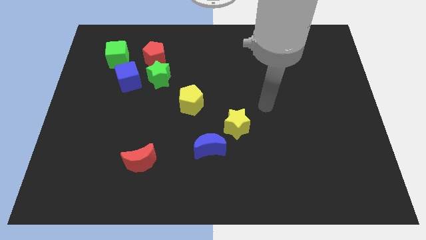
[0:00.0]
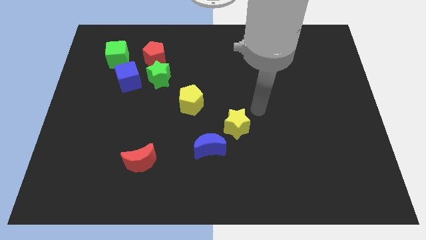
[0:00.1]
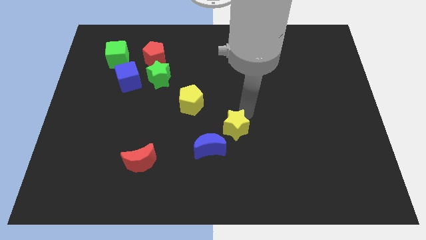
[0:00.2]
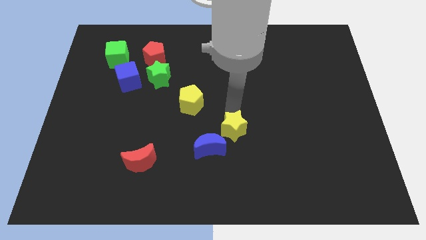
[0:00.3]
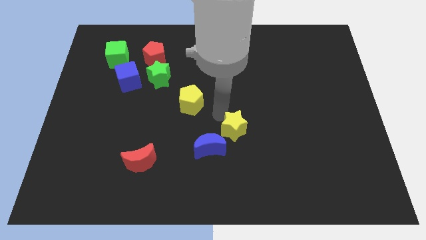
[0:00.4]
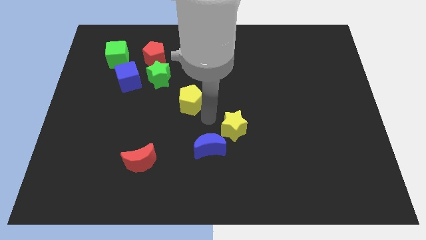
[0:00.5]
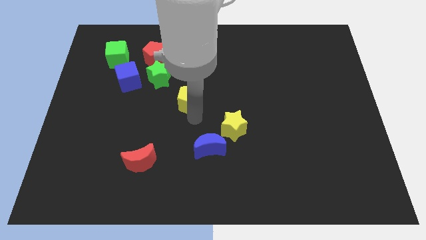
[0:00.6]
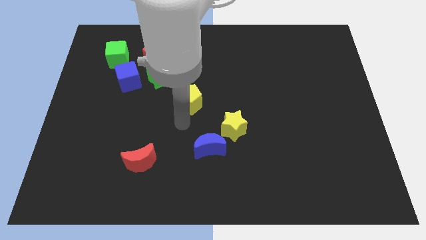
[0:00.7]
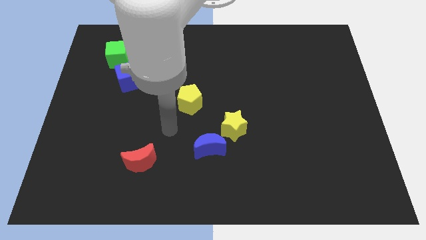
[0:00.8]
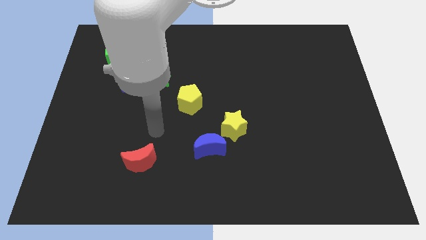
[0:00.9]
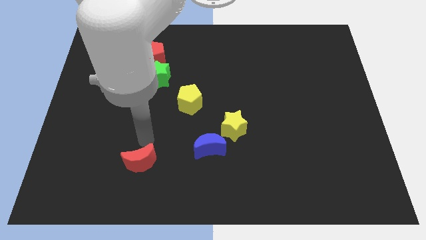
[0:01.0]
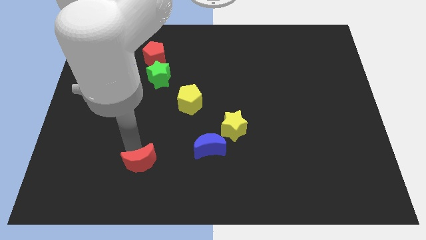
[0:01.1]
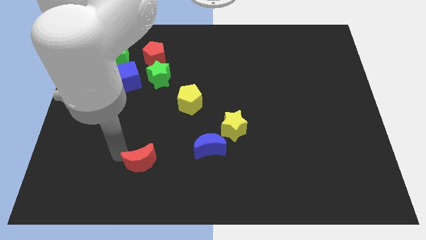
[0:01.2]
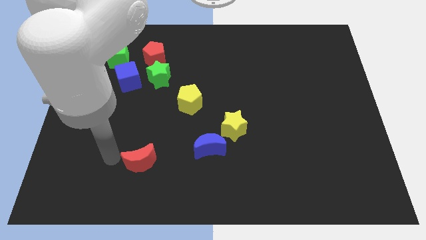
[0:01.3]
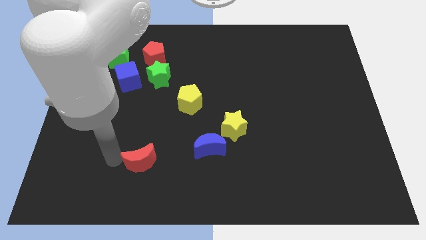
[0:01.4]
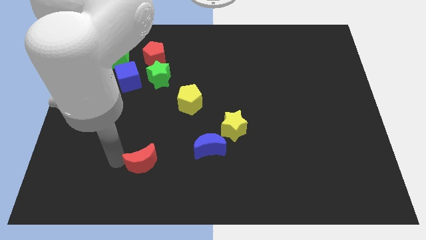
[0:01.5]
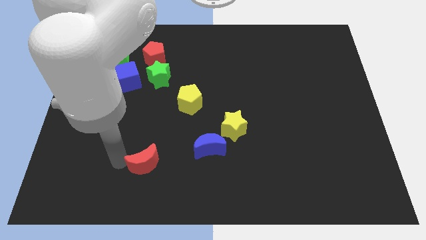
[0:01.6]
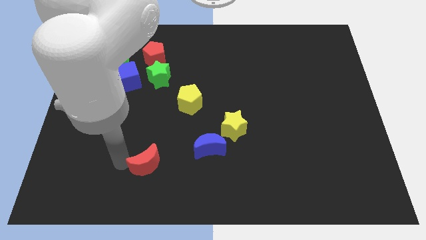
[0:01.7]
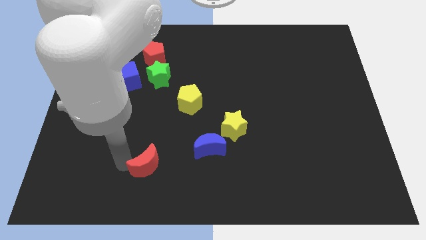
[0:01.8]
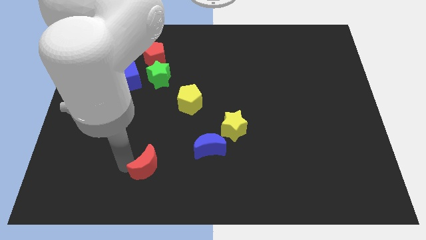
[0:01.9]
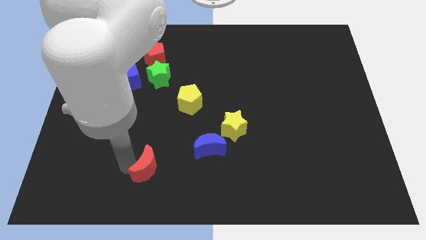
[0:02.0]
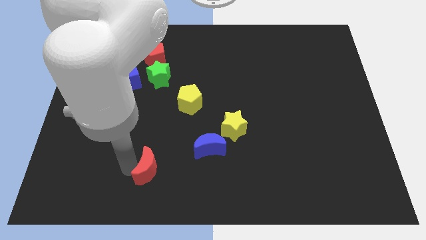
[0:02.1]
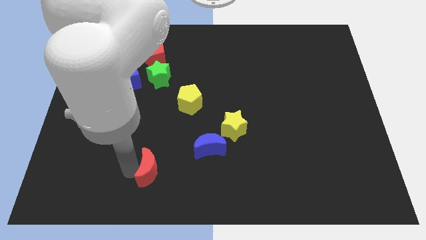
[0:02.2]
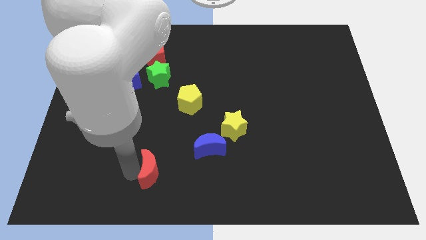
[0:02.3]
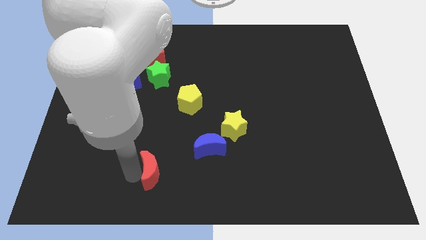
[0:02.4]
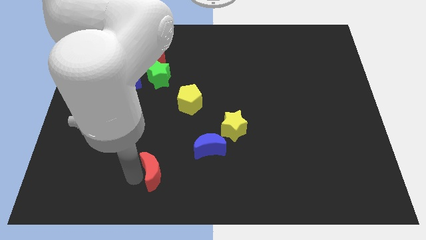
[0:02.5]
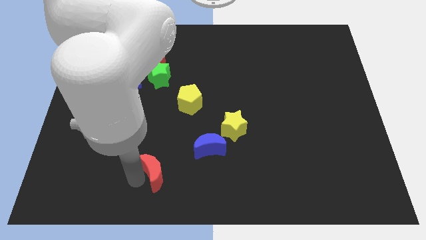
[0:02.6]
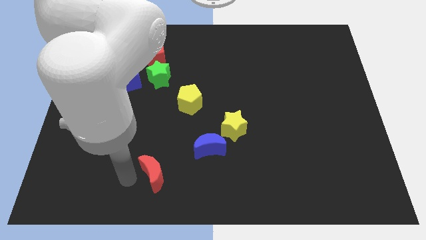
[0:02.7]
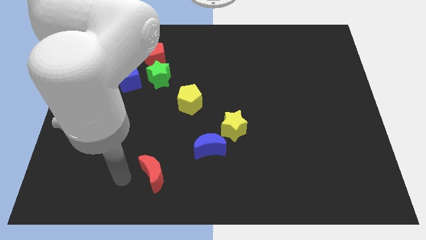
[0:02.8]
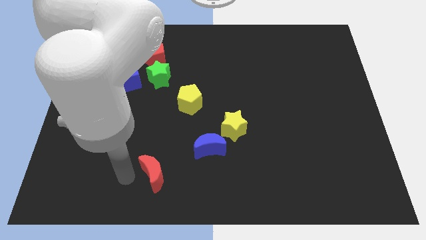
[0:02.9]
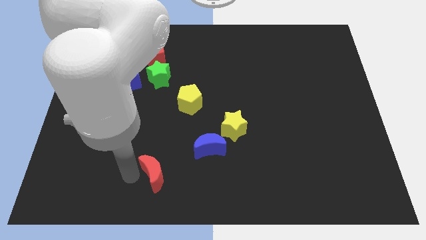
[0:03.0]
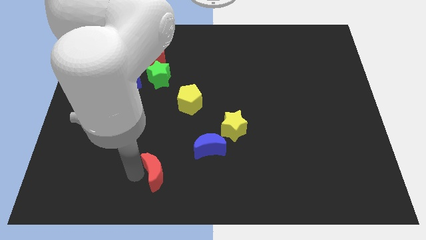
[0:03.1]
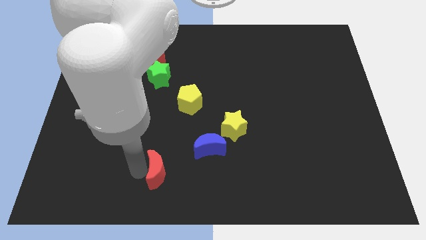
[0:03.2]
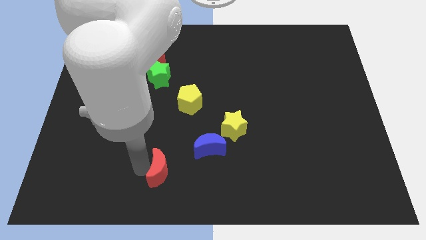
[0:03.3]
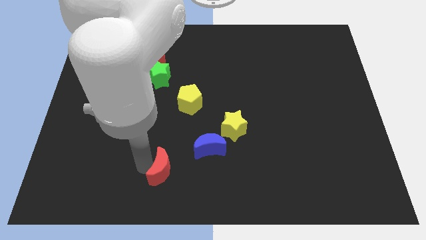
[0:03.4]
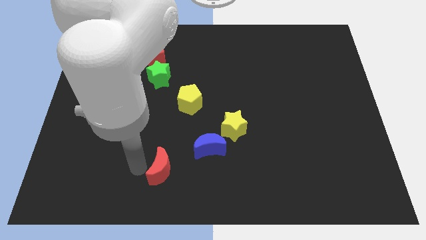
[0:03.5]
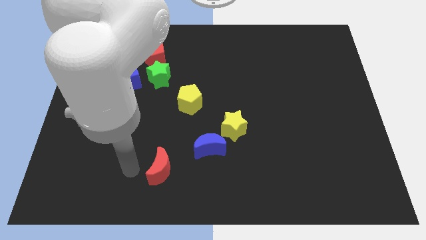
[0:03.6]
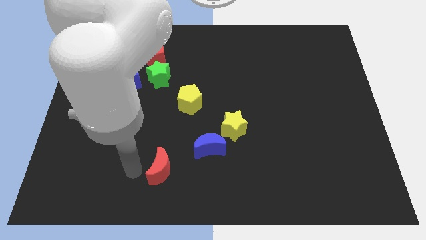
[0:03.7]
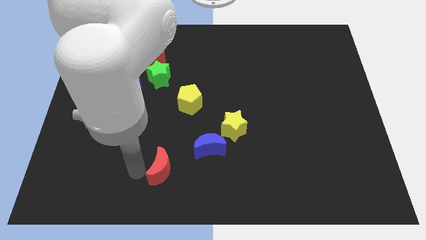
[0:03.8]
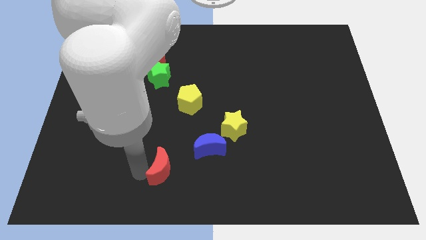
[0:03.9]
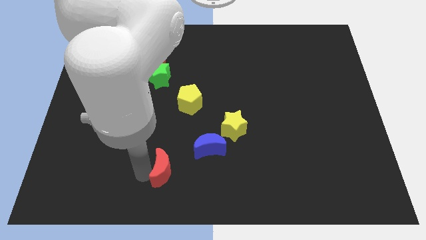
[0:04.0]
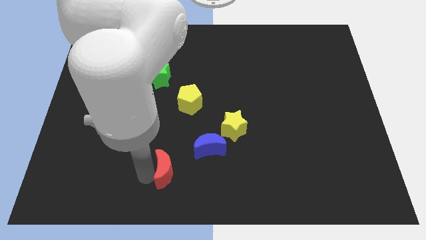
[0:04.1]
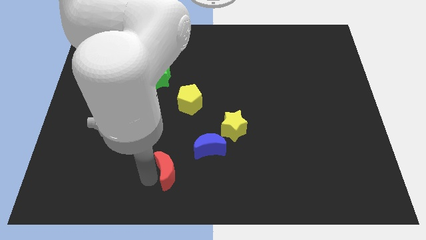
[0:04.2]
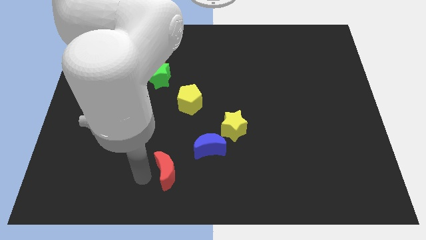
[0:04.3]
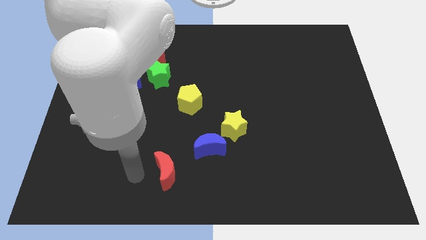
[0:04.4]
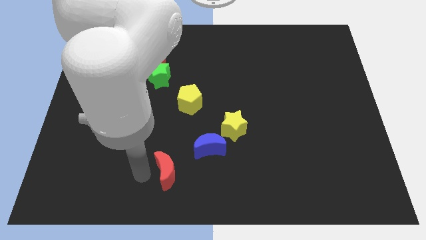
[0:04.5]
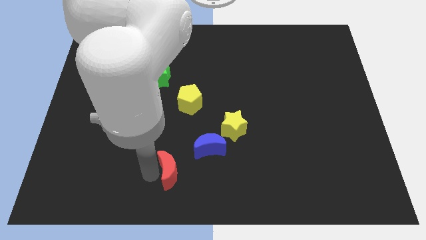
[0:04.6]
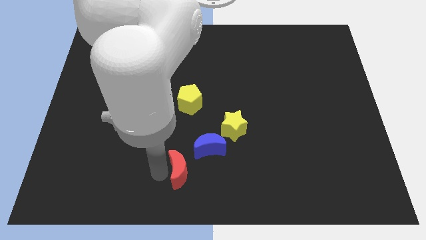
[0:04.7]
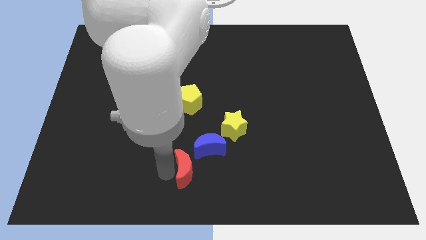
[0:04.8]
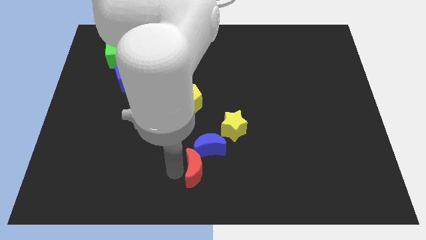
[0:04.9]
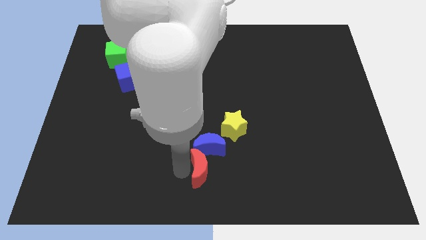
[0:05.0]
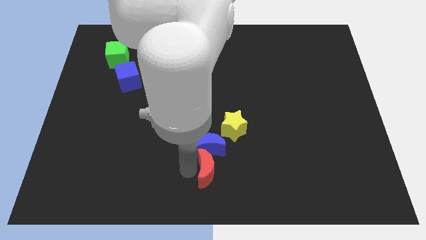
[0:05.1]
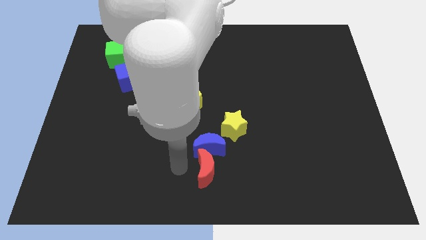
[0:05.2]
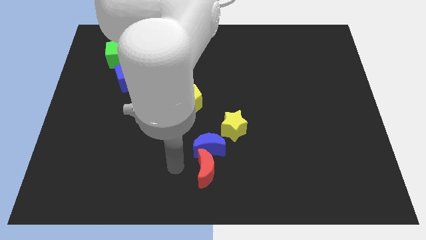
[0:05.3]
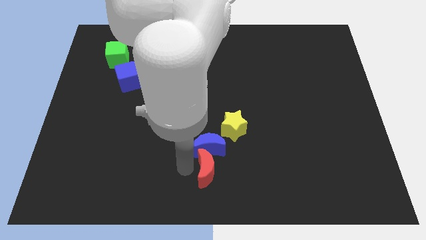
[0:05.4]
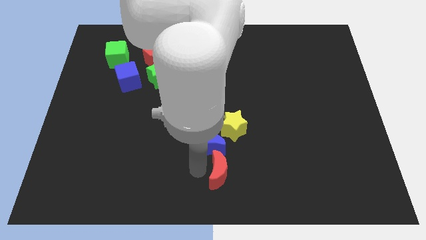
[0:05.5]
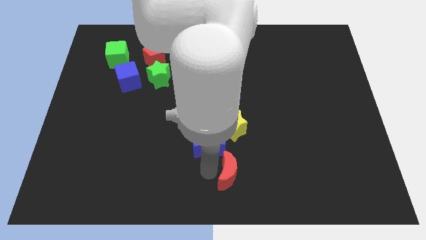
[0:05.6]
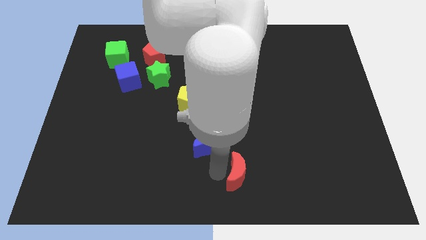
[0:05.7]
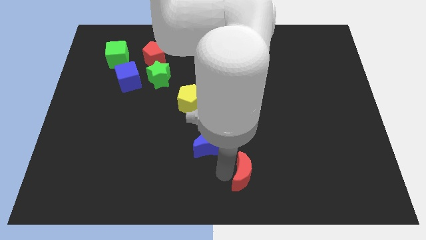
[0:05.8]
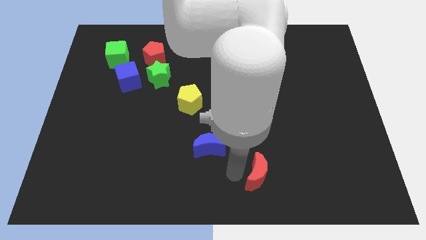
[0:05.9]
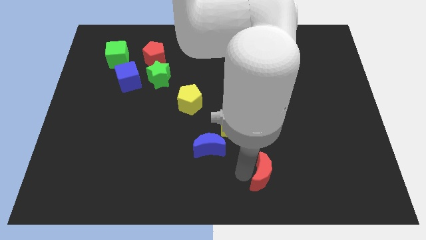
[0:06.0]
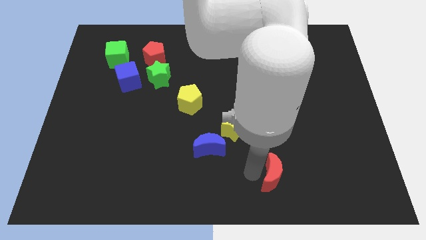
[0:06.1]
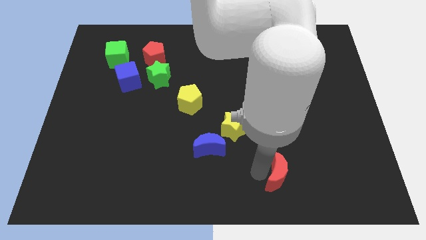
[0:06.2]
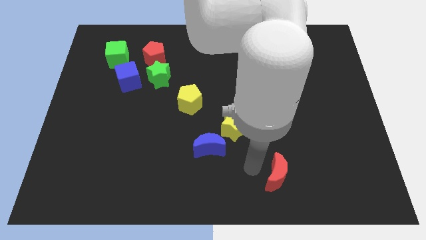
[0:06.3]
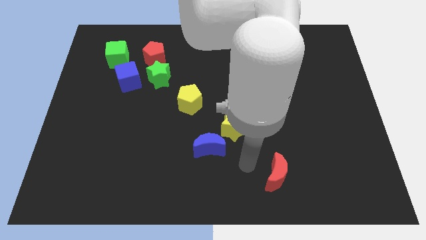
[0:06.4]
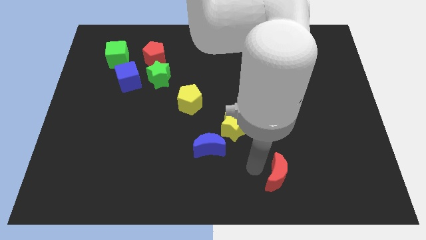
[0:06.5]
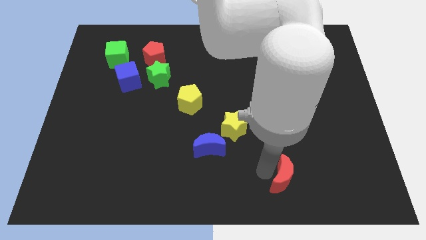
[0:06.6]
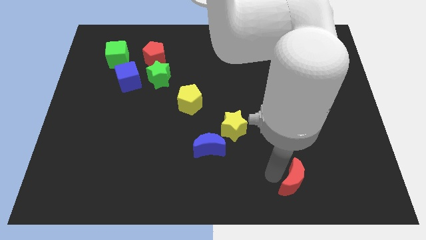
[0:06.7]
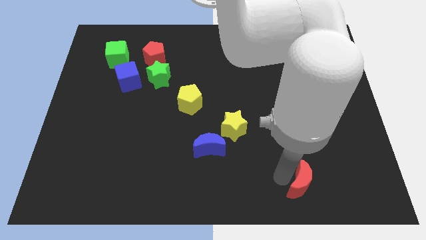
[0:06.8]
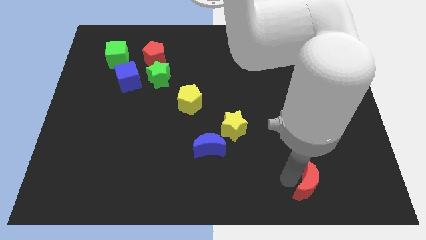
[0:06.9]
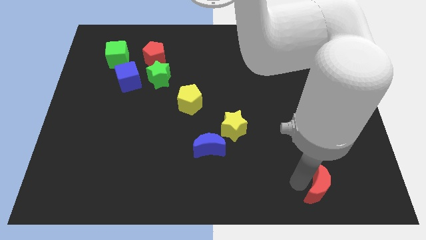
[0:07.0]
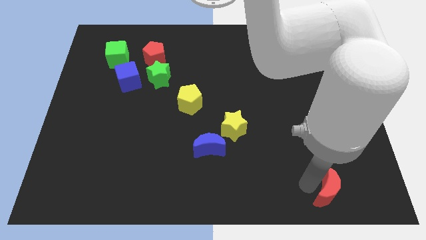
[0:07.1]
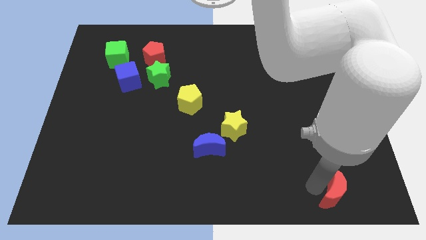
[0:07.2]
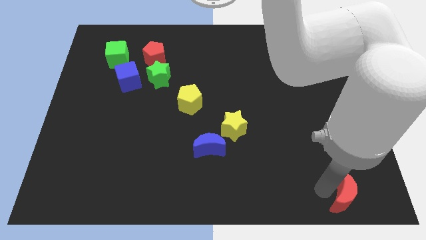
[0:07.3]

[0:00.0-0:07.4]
put the red moon to the bottom right corner
